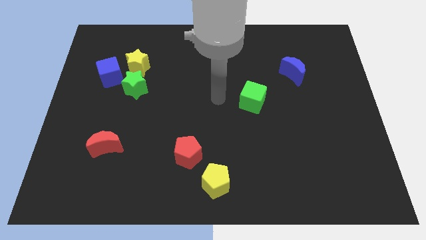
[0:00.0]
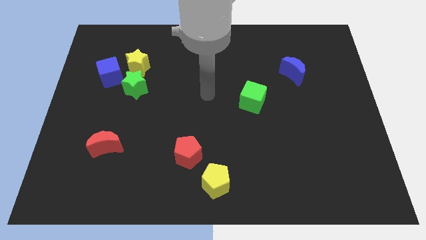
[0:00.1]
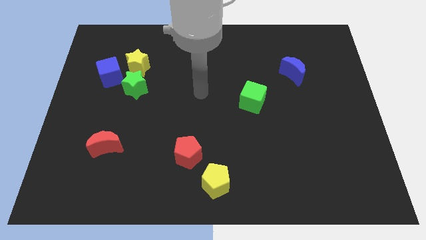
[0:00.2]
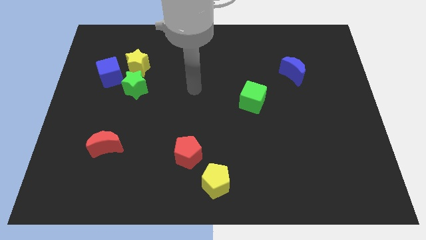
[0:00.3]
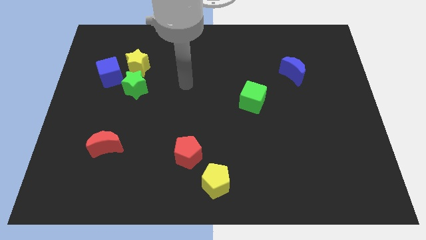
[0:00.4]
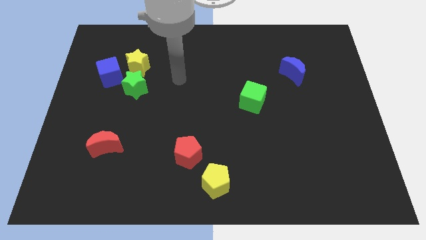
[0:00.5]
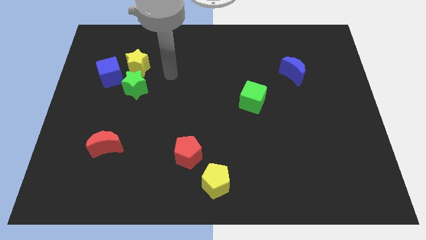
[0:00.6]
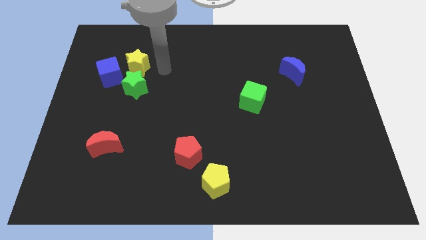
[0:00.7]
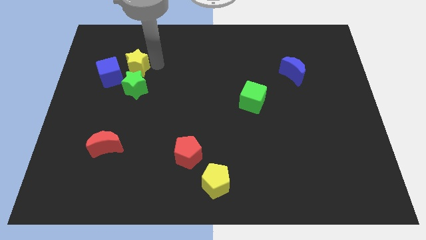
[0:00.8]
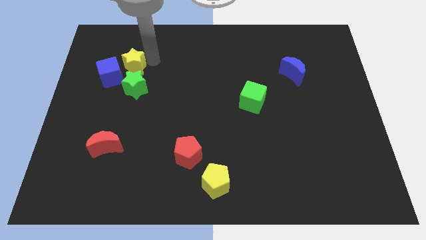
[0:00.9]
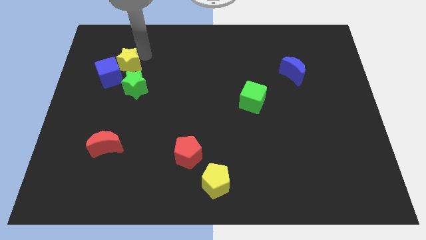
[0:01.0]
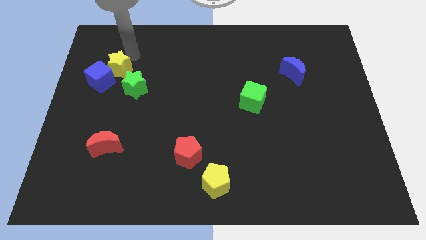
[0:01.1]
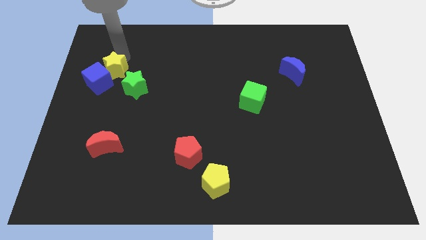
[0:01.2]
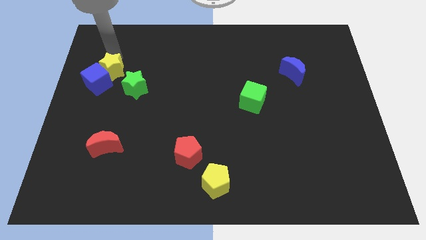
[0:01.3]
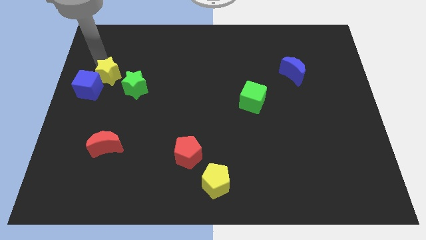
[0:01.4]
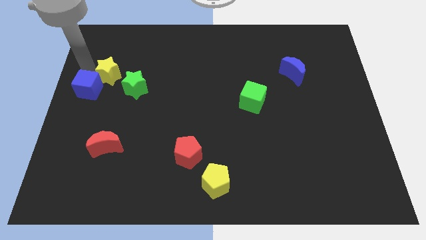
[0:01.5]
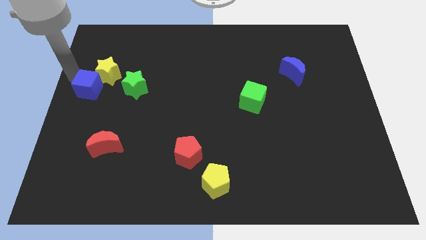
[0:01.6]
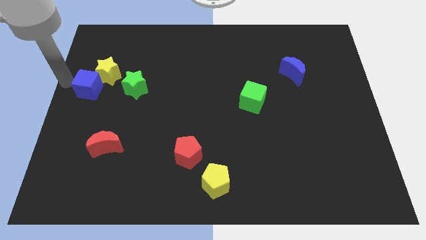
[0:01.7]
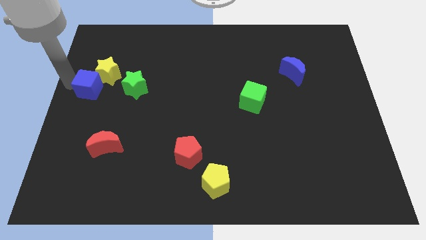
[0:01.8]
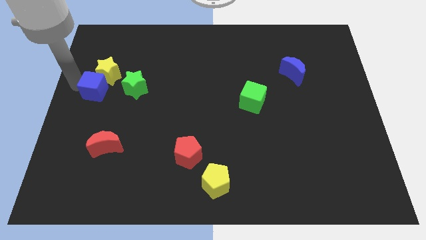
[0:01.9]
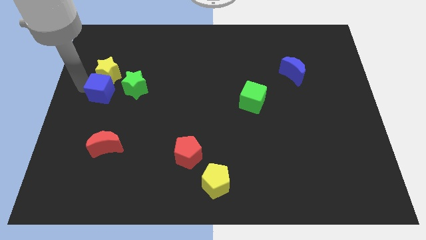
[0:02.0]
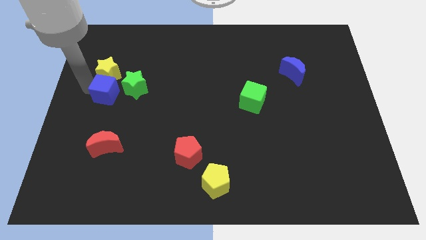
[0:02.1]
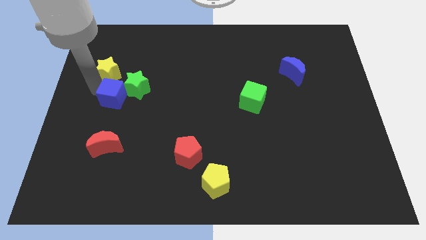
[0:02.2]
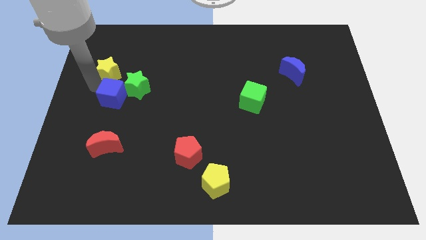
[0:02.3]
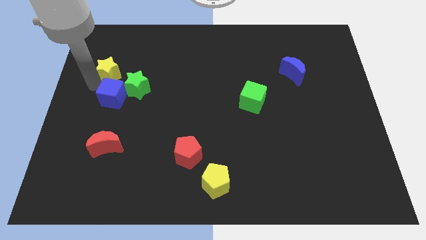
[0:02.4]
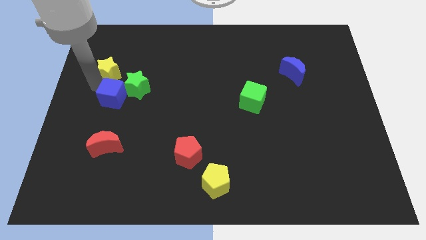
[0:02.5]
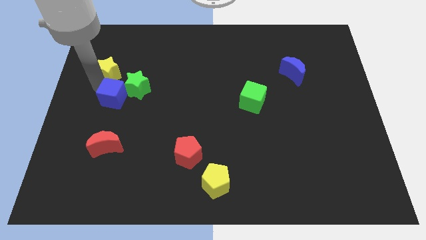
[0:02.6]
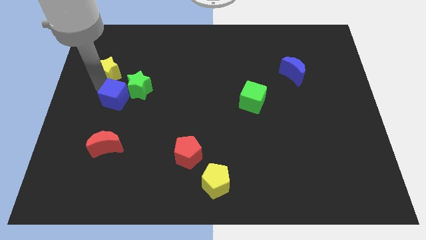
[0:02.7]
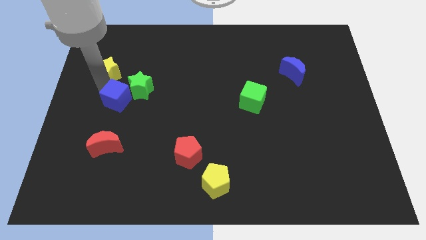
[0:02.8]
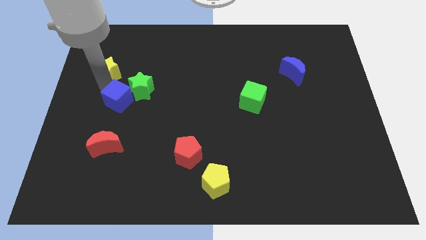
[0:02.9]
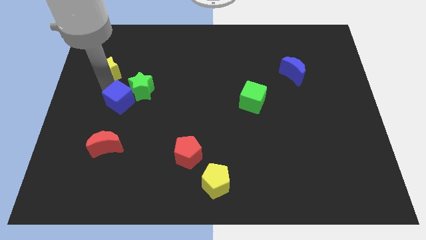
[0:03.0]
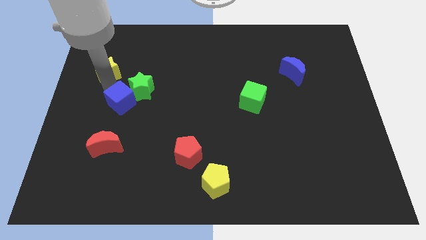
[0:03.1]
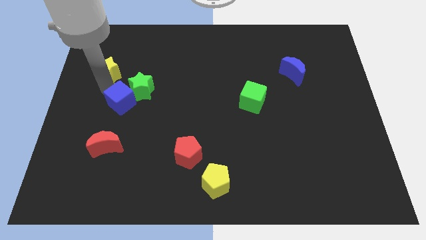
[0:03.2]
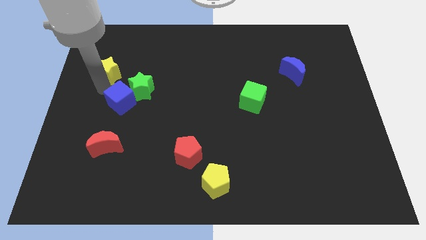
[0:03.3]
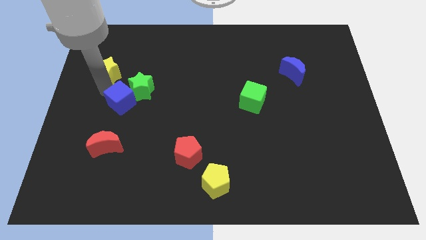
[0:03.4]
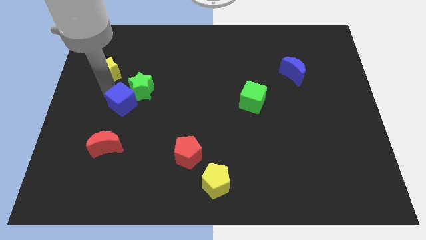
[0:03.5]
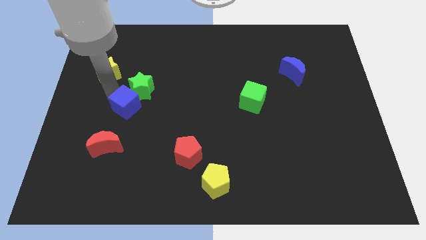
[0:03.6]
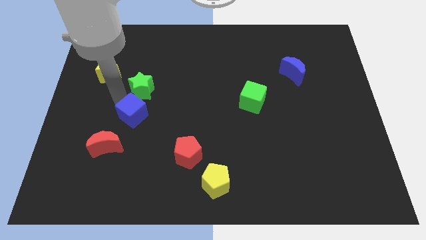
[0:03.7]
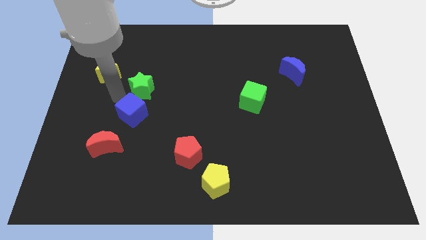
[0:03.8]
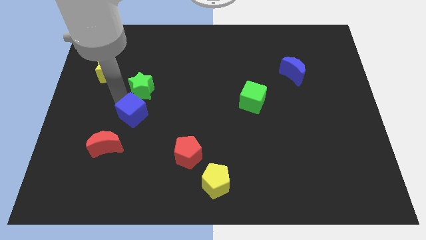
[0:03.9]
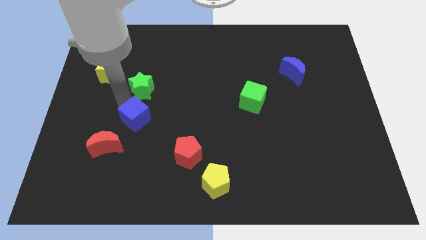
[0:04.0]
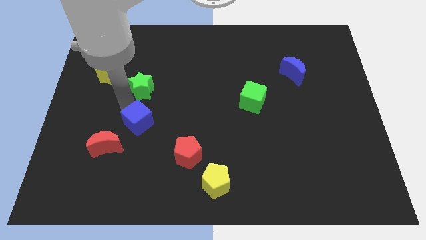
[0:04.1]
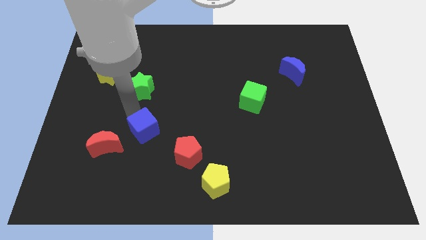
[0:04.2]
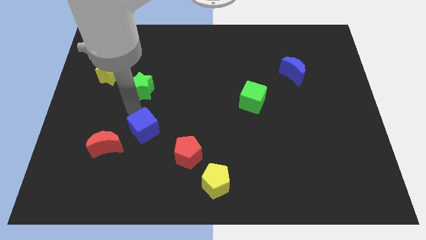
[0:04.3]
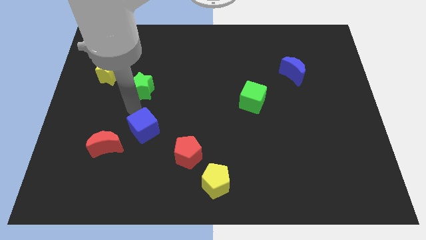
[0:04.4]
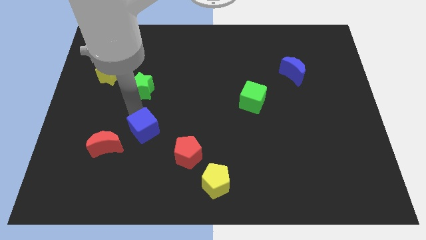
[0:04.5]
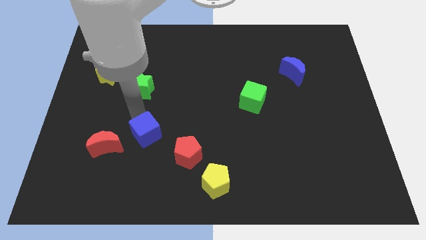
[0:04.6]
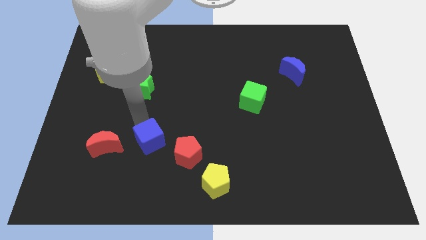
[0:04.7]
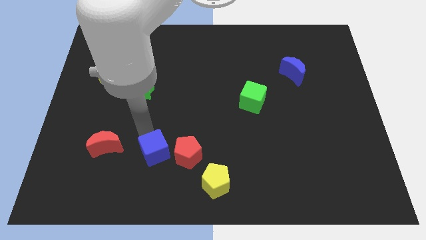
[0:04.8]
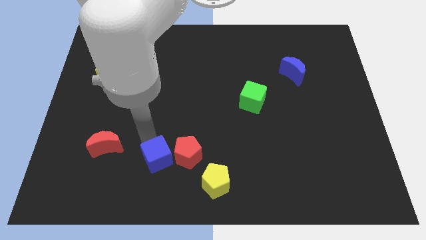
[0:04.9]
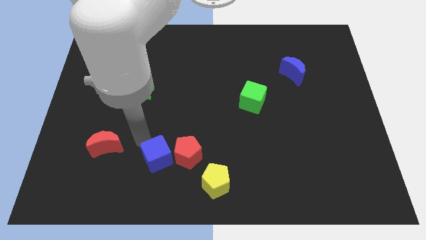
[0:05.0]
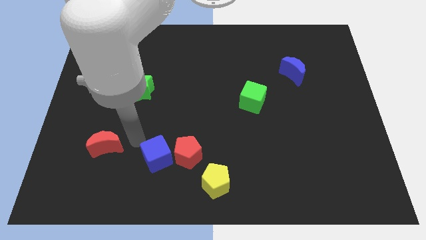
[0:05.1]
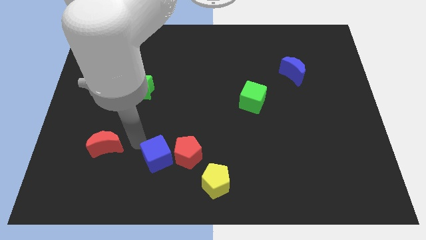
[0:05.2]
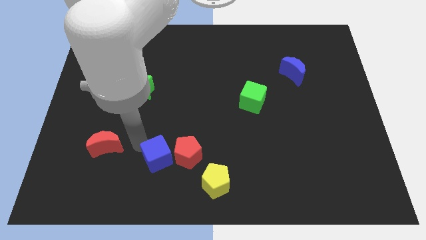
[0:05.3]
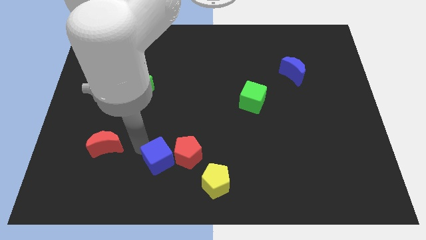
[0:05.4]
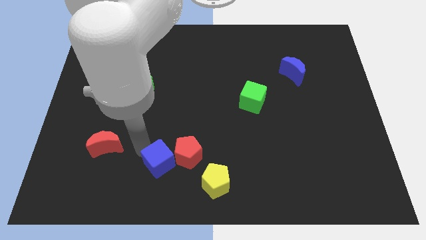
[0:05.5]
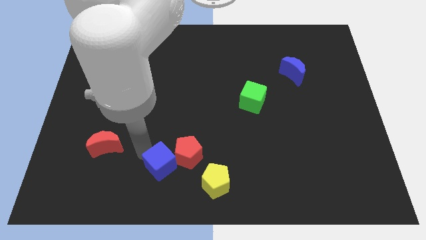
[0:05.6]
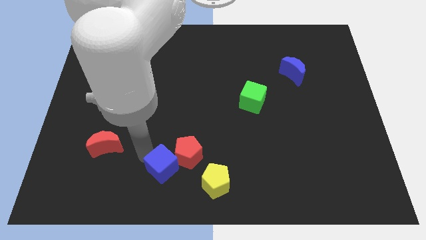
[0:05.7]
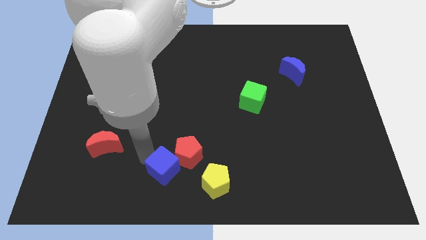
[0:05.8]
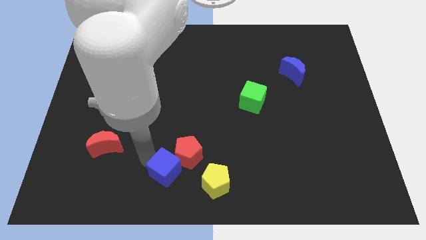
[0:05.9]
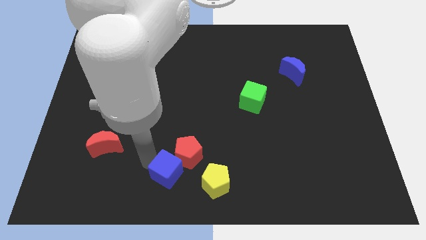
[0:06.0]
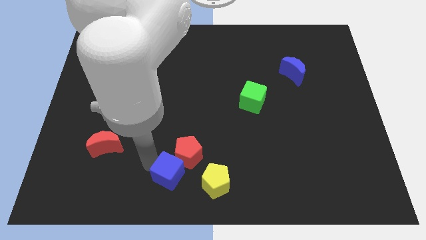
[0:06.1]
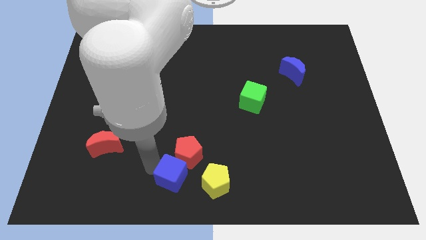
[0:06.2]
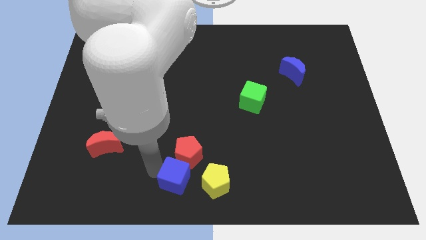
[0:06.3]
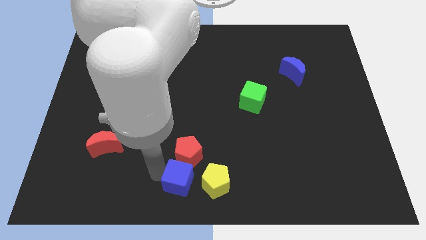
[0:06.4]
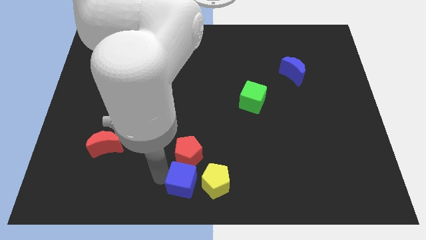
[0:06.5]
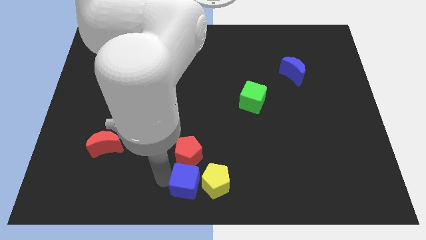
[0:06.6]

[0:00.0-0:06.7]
slide the blue cube close to the yellow pentagon
